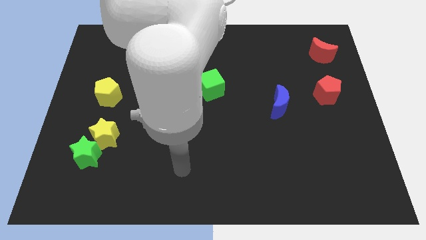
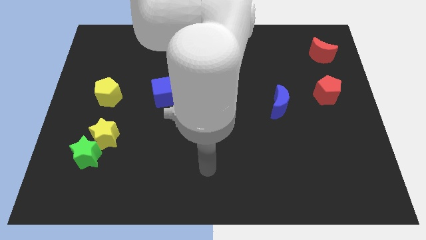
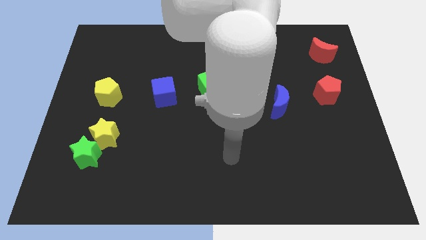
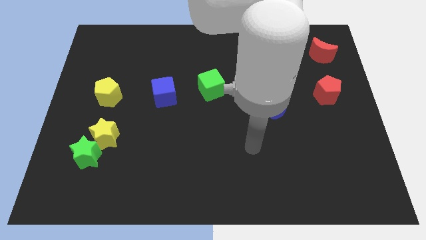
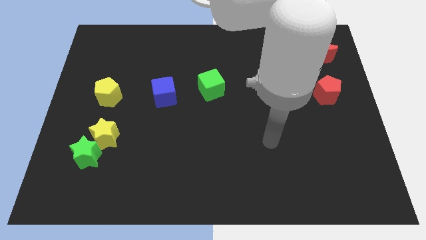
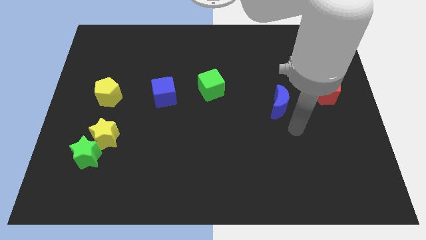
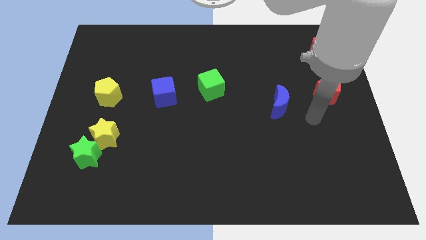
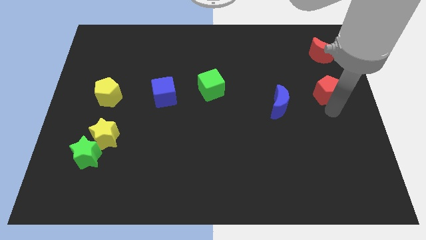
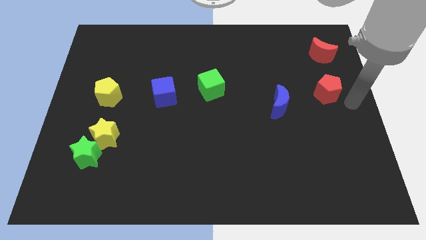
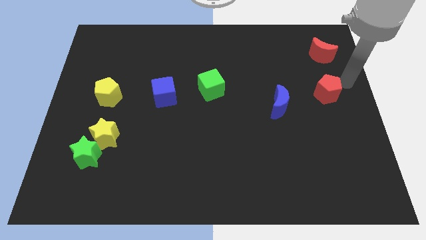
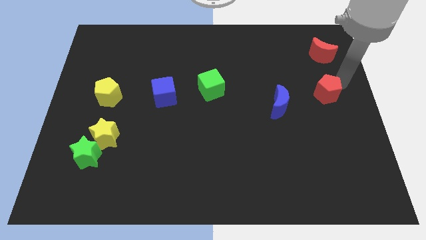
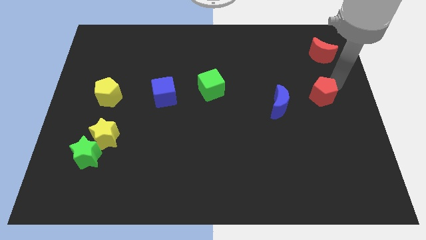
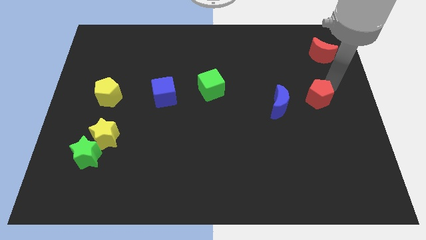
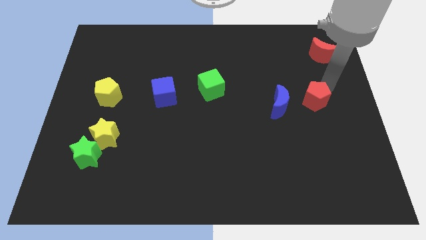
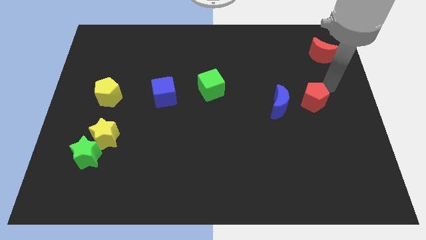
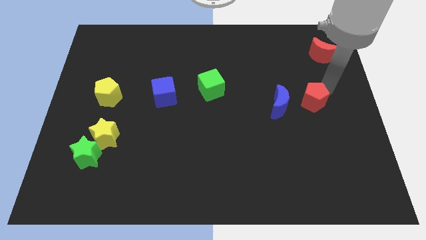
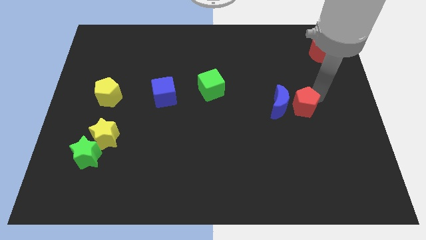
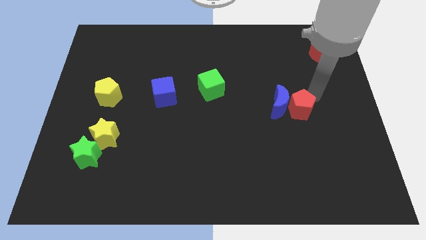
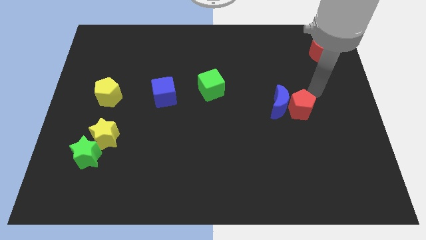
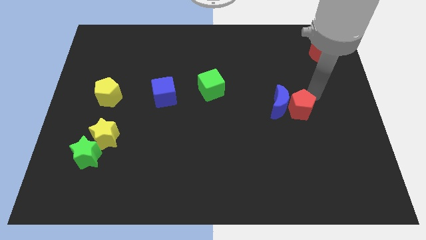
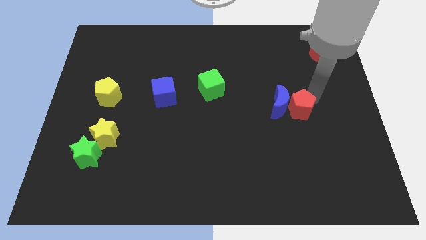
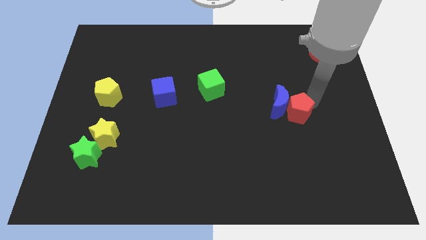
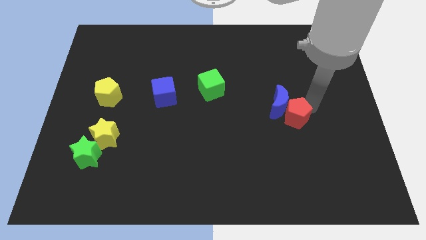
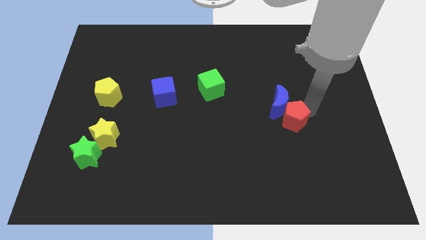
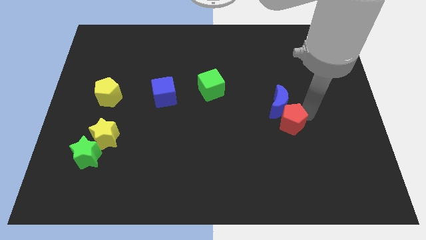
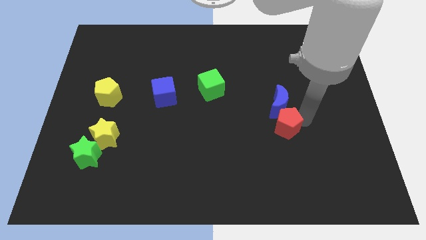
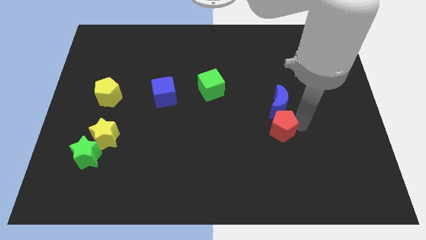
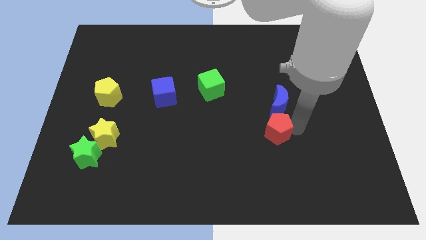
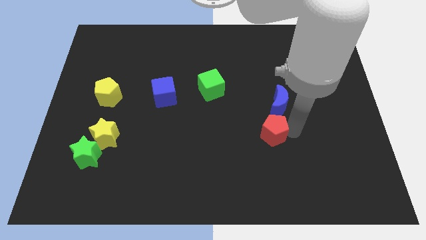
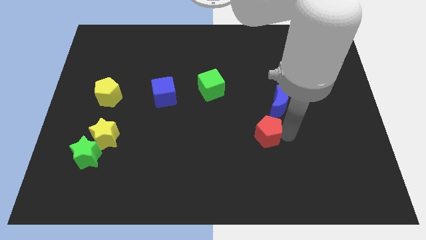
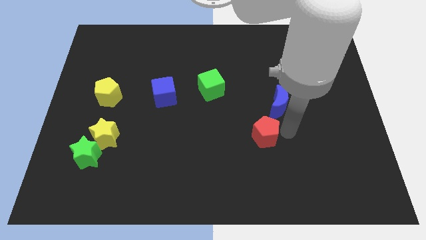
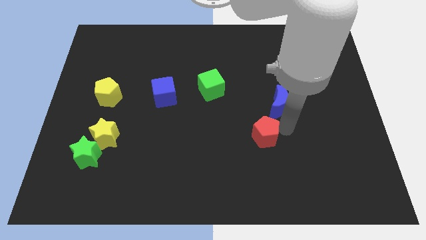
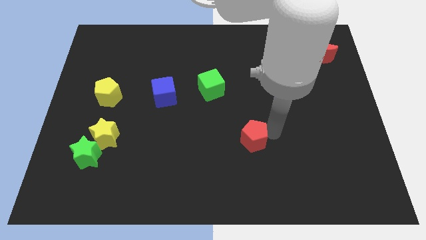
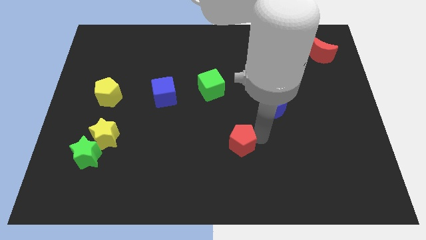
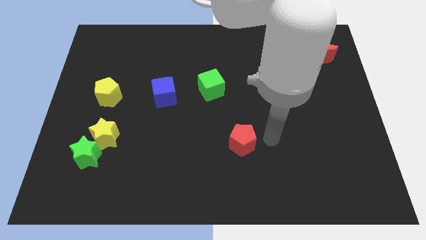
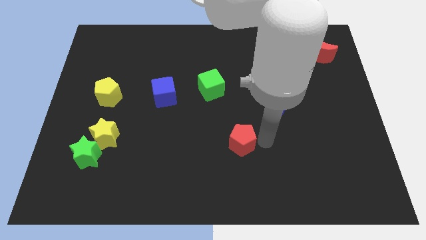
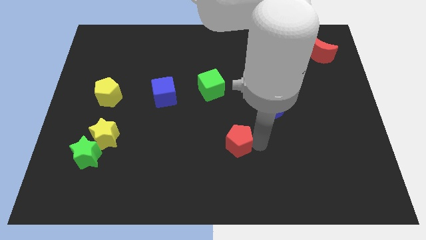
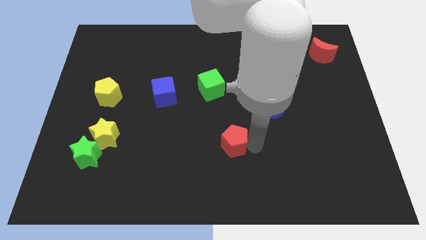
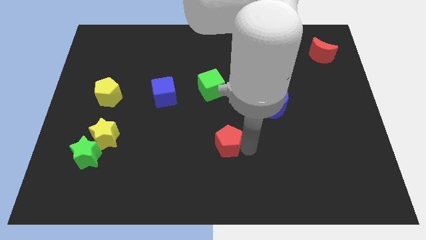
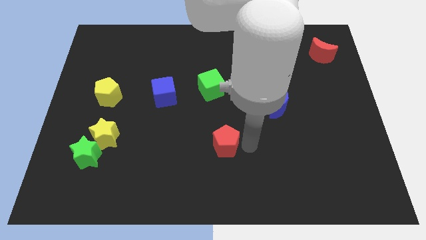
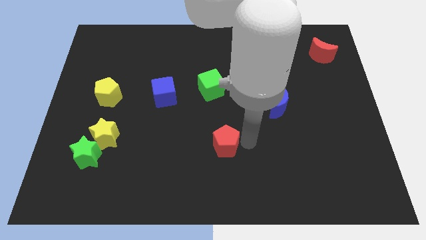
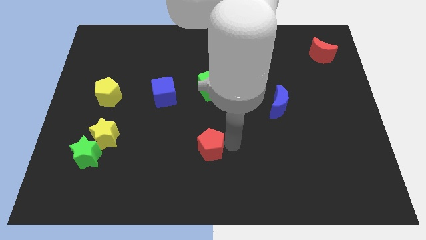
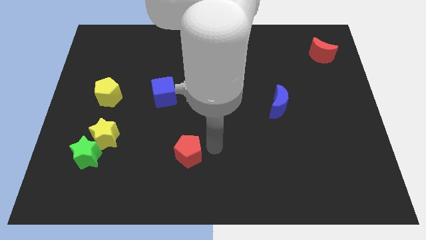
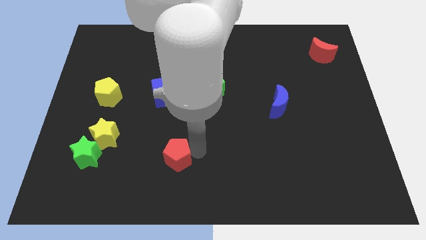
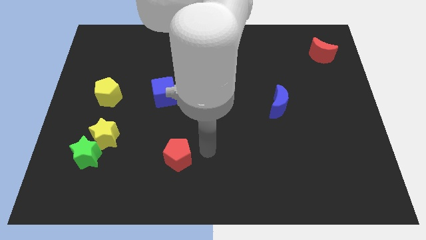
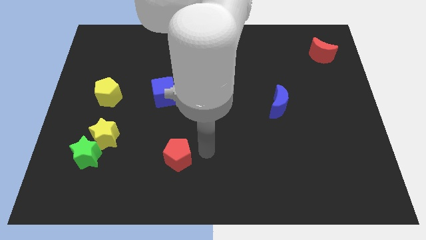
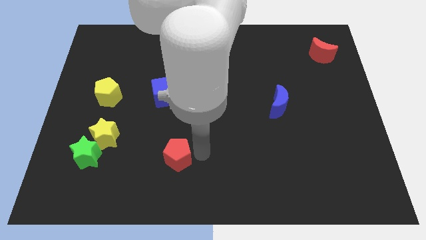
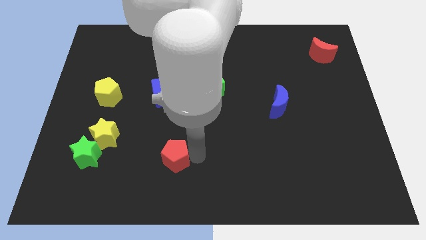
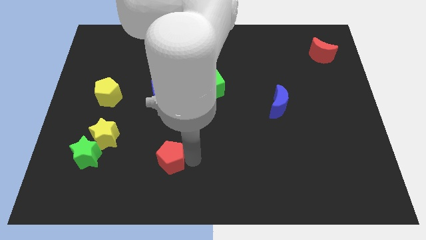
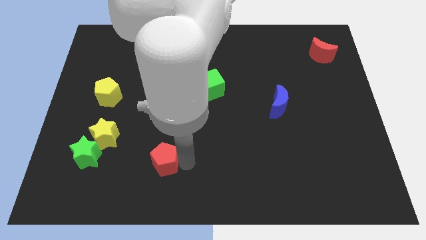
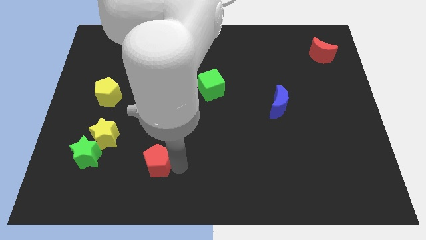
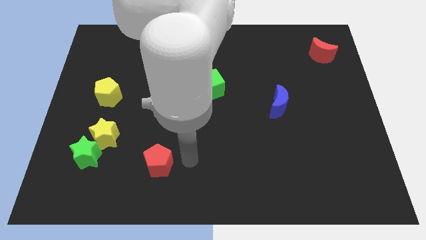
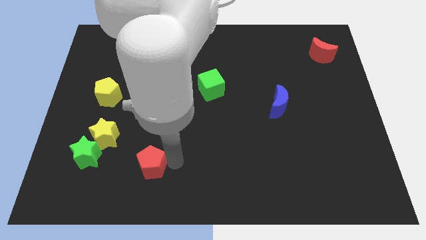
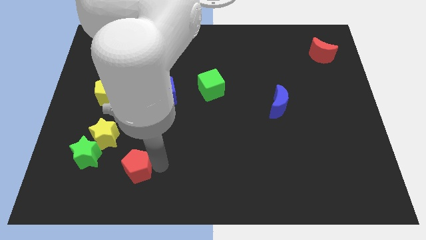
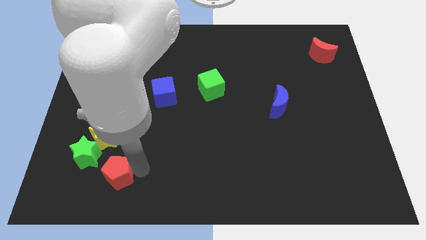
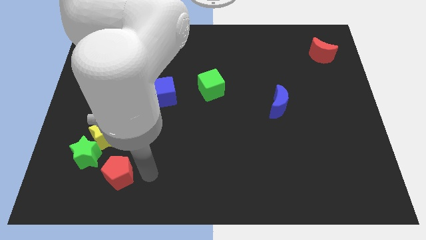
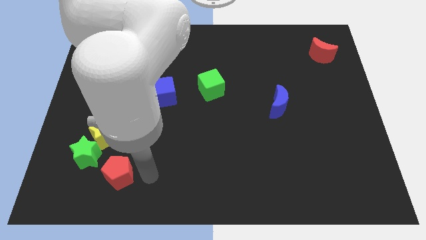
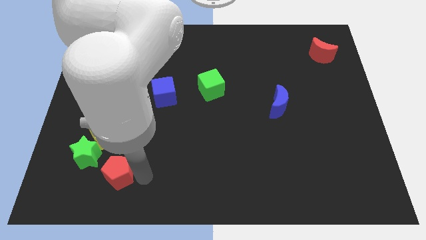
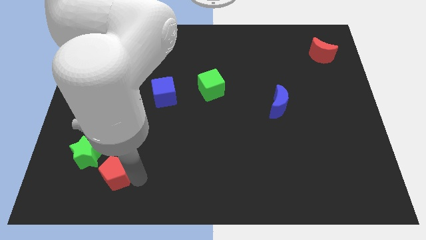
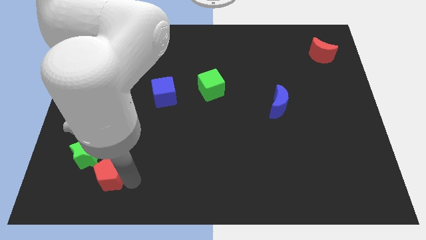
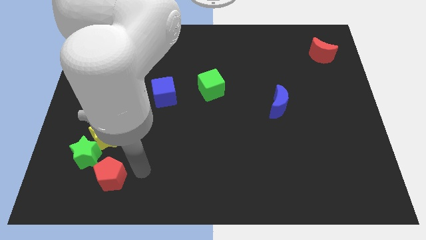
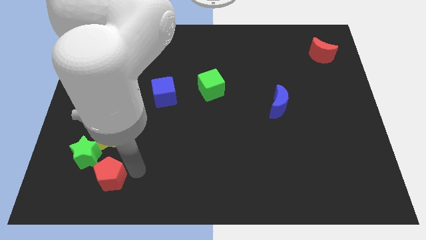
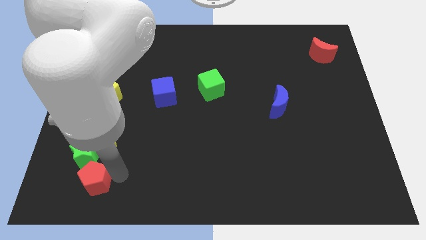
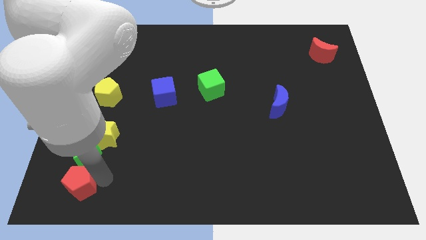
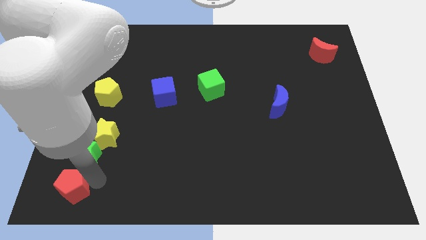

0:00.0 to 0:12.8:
put the red pentagon to the bottom left of the board
